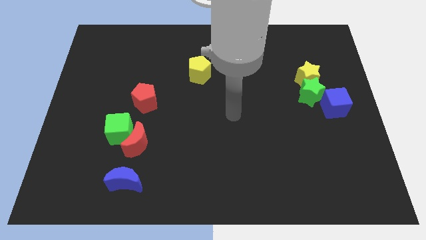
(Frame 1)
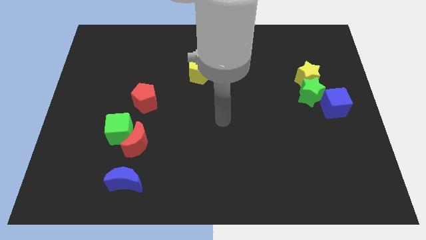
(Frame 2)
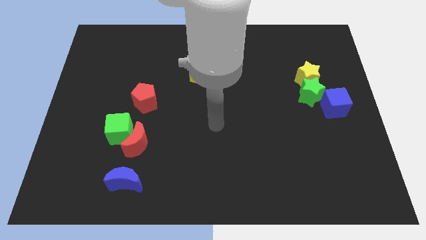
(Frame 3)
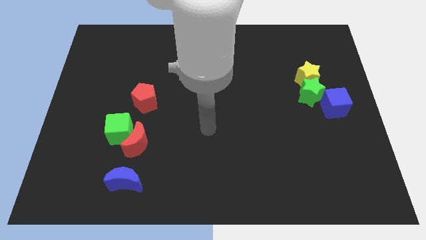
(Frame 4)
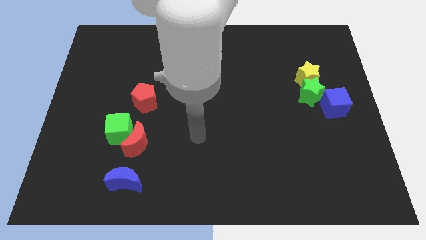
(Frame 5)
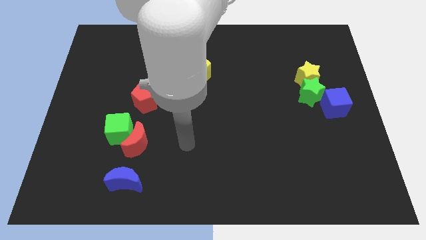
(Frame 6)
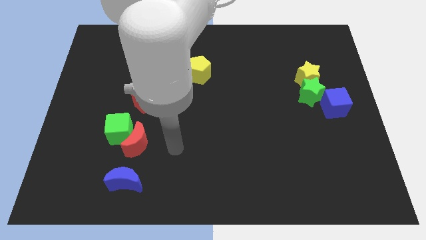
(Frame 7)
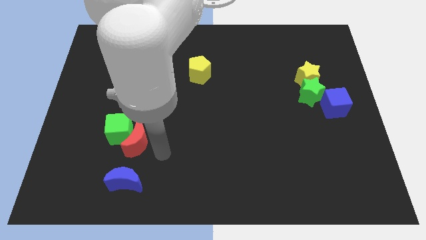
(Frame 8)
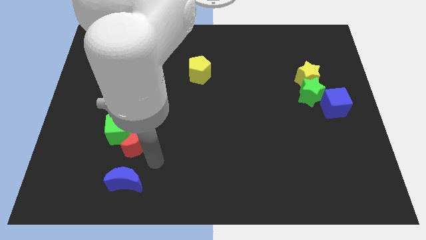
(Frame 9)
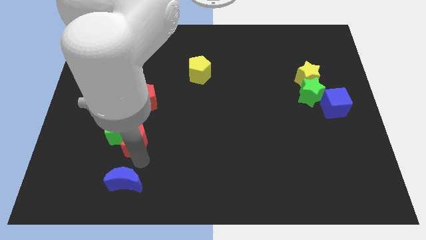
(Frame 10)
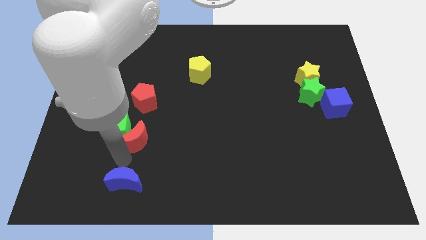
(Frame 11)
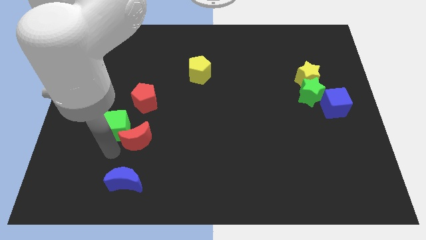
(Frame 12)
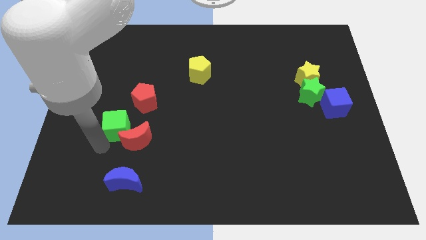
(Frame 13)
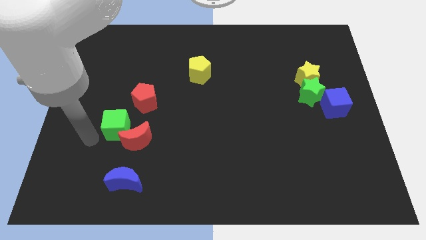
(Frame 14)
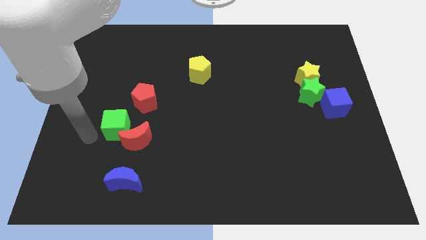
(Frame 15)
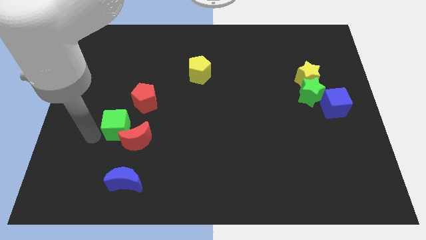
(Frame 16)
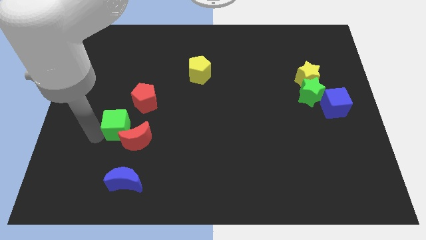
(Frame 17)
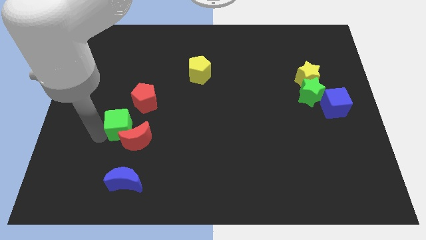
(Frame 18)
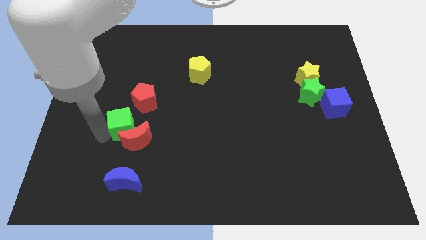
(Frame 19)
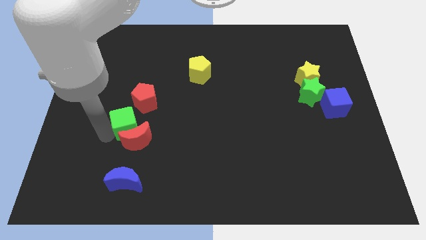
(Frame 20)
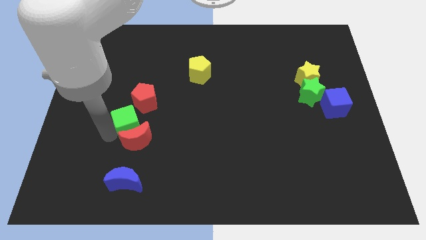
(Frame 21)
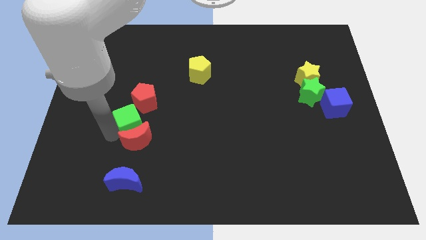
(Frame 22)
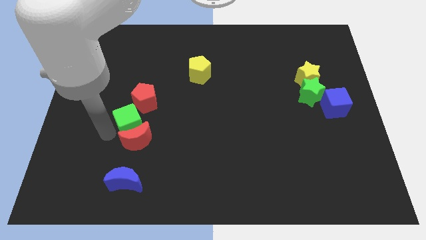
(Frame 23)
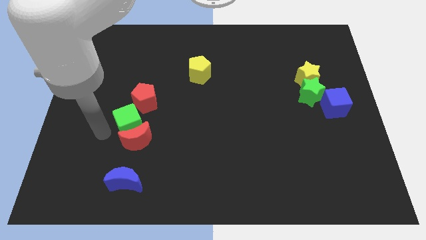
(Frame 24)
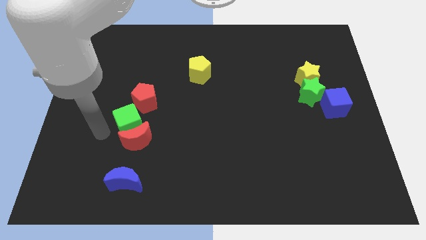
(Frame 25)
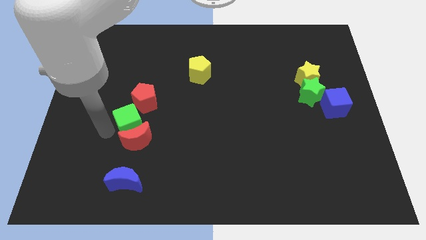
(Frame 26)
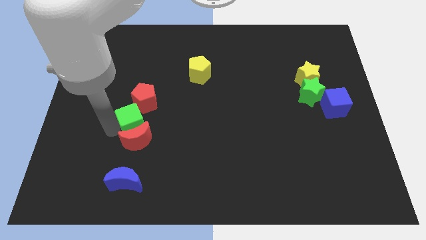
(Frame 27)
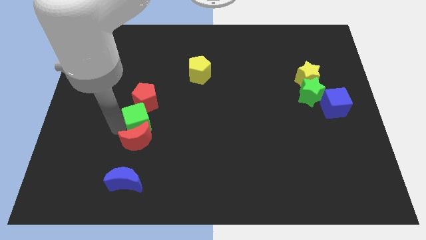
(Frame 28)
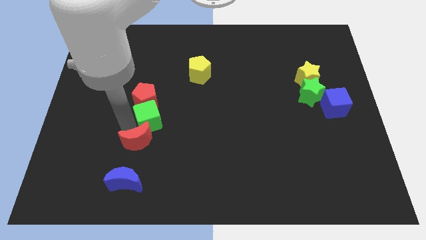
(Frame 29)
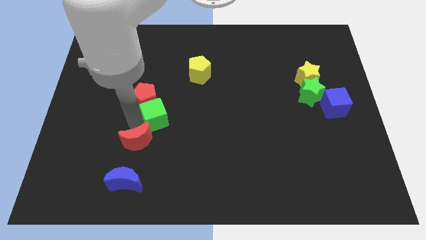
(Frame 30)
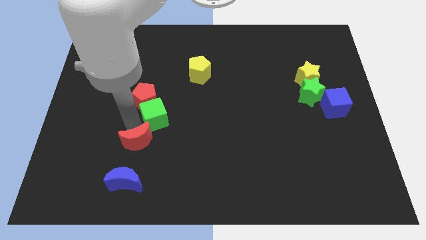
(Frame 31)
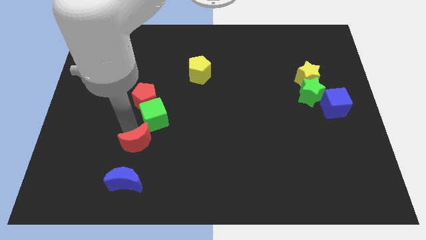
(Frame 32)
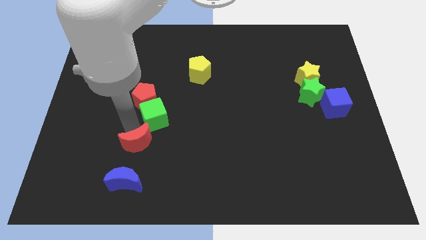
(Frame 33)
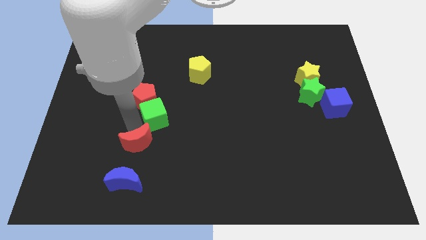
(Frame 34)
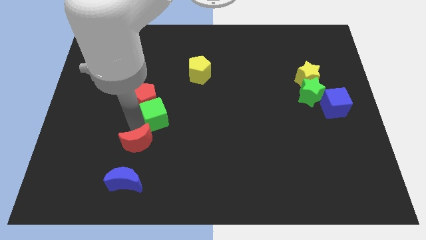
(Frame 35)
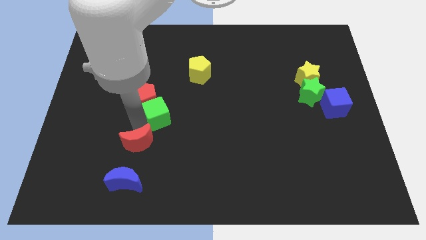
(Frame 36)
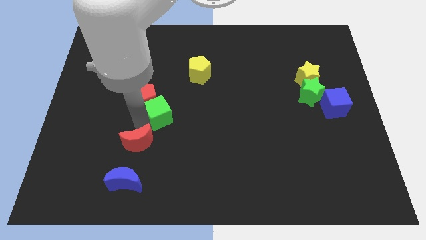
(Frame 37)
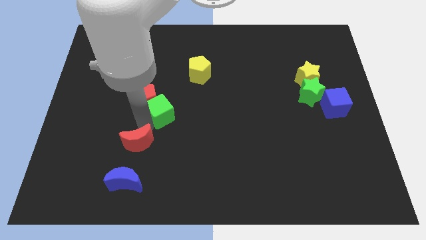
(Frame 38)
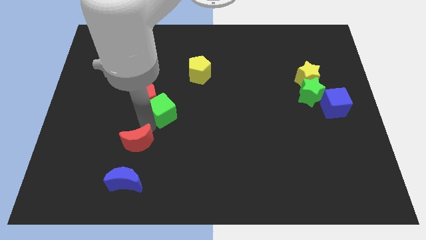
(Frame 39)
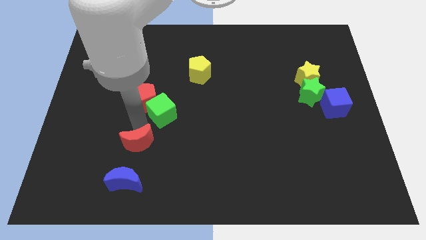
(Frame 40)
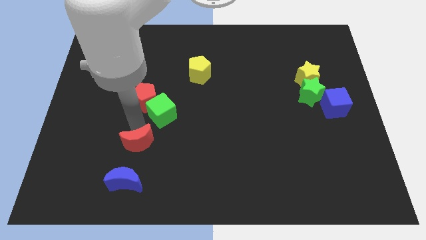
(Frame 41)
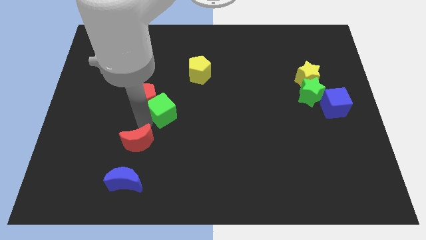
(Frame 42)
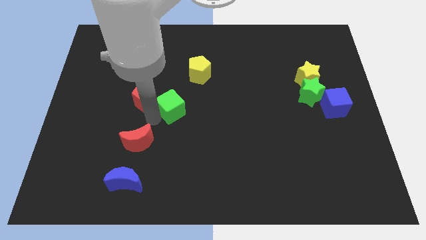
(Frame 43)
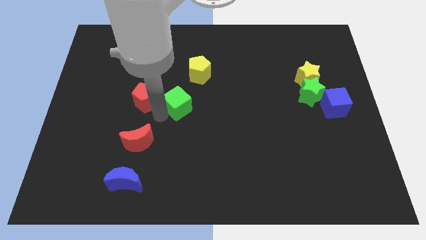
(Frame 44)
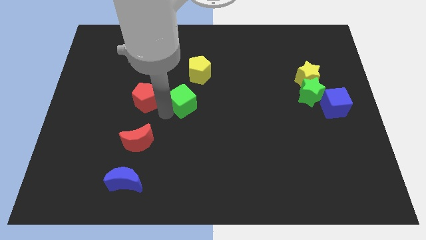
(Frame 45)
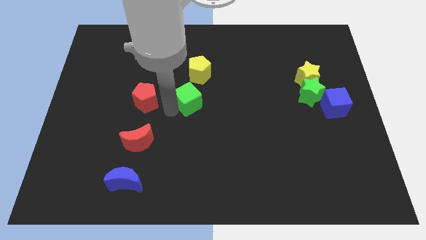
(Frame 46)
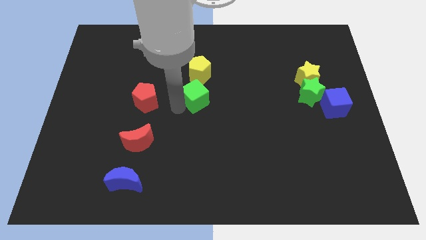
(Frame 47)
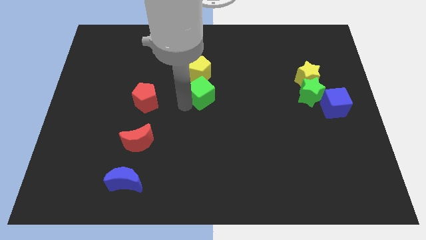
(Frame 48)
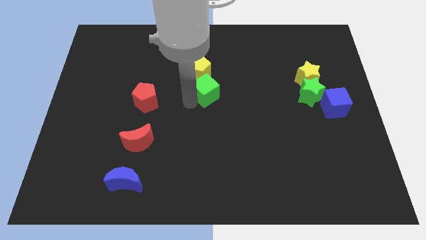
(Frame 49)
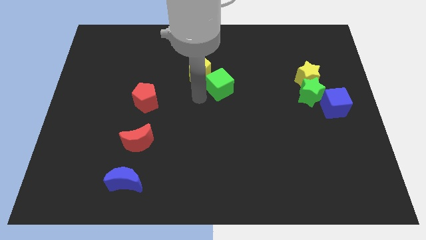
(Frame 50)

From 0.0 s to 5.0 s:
move the green cube right of the yellow pentagon

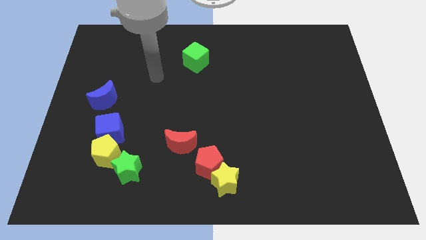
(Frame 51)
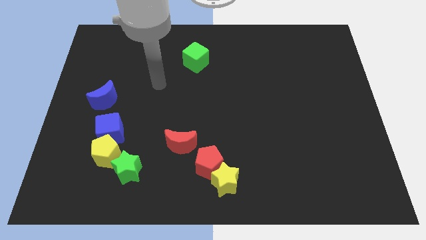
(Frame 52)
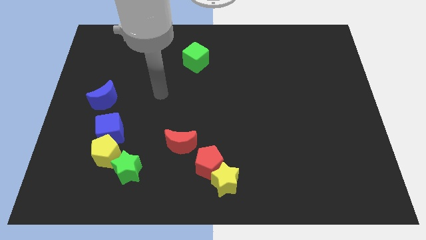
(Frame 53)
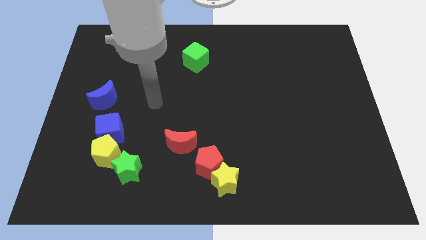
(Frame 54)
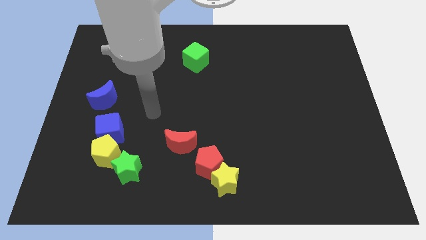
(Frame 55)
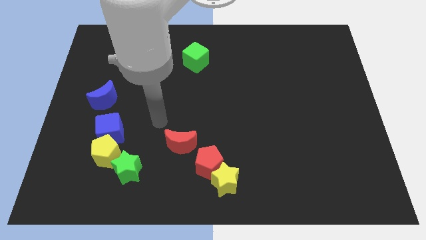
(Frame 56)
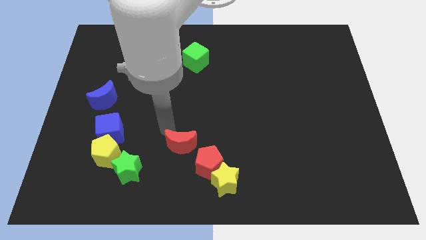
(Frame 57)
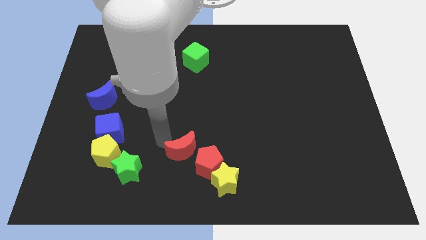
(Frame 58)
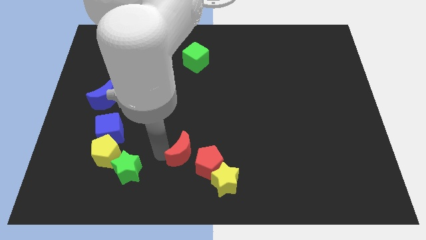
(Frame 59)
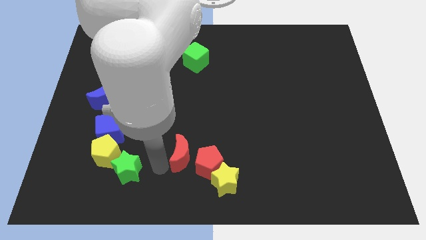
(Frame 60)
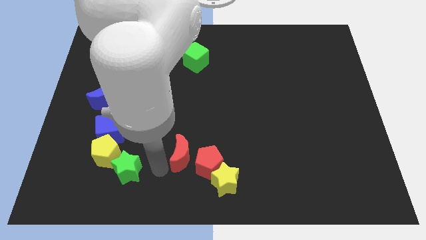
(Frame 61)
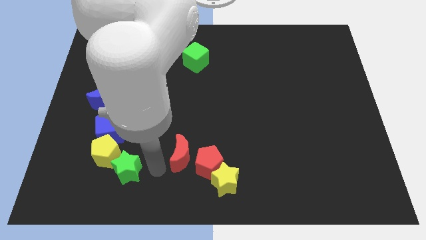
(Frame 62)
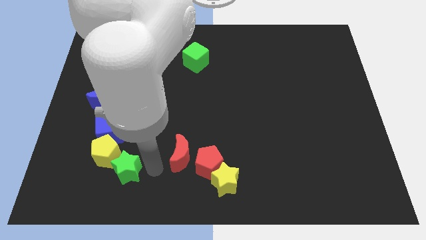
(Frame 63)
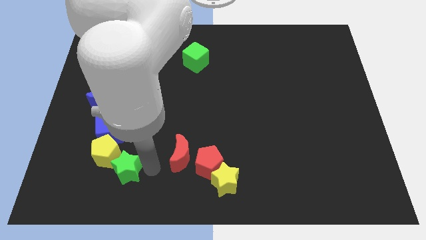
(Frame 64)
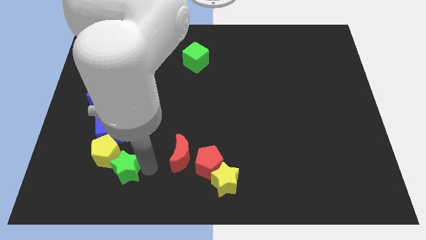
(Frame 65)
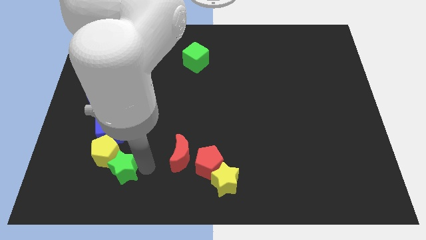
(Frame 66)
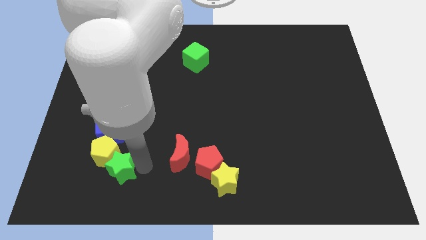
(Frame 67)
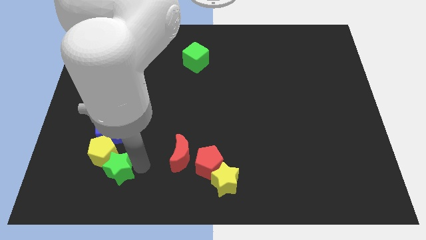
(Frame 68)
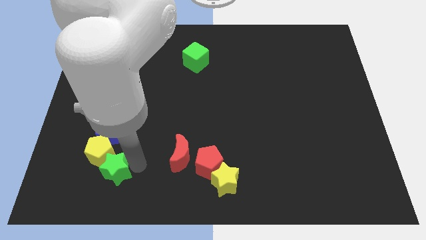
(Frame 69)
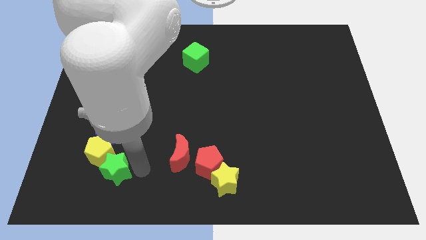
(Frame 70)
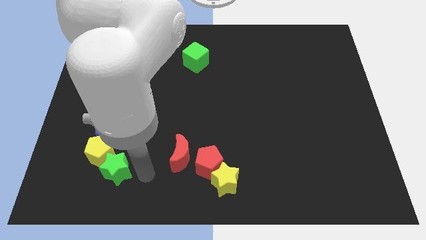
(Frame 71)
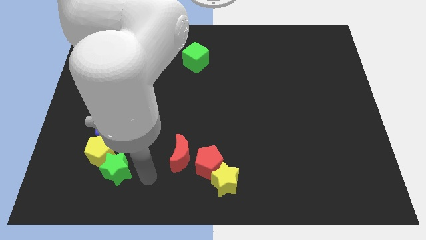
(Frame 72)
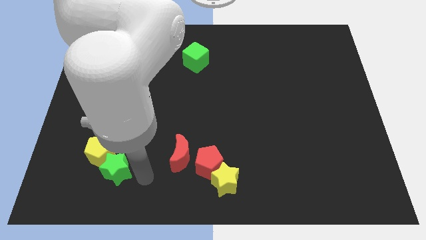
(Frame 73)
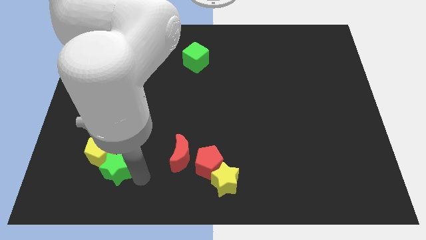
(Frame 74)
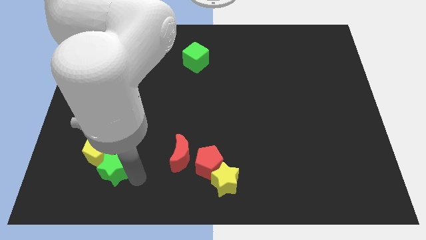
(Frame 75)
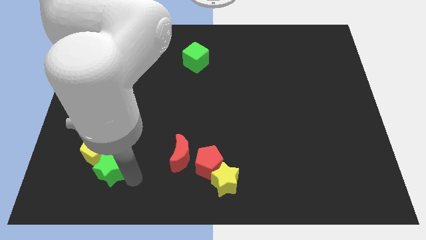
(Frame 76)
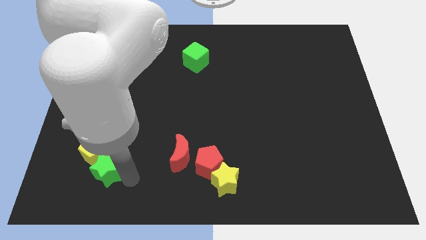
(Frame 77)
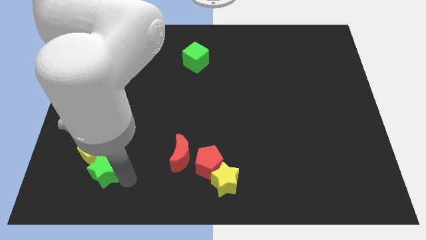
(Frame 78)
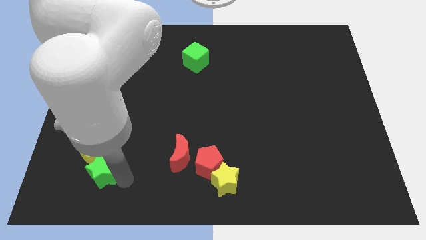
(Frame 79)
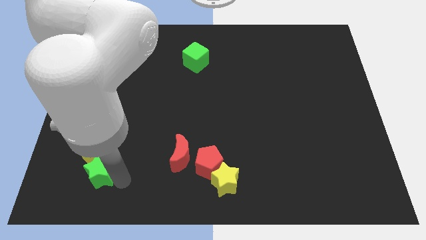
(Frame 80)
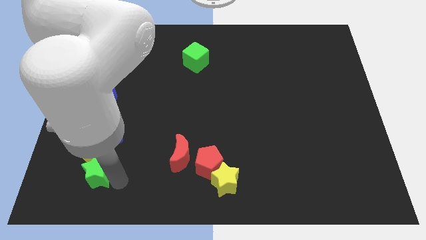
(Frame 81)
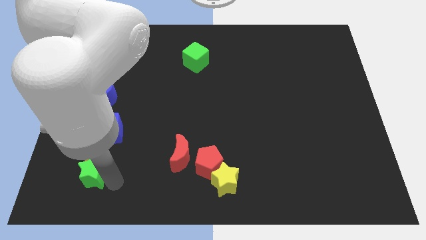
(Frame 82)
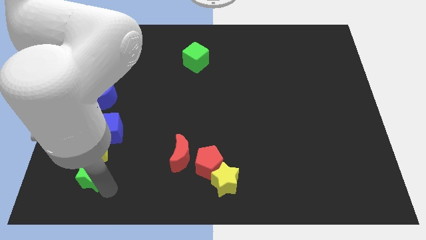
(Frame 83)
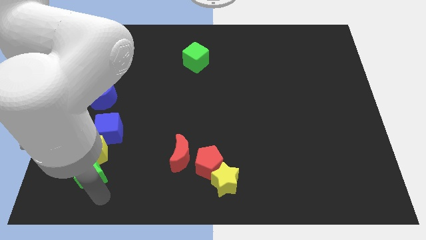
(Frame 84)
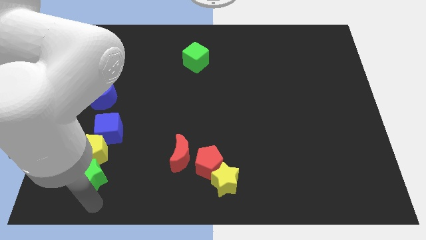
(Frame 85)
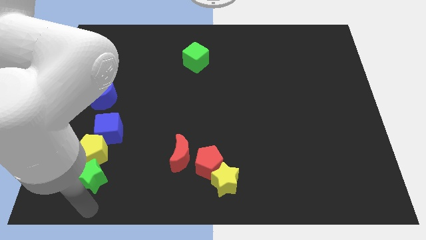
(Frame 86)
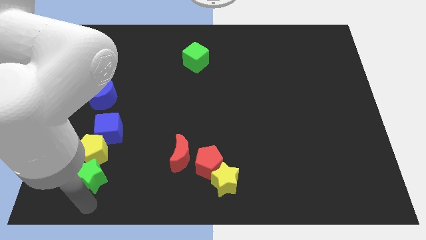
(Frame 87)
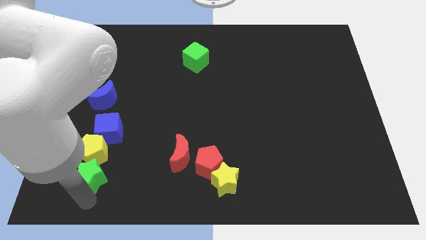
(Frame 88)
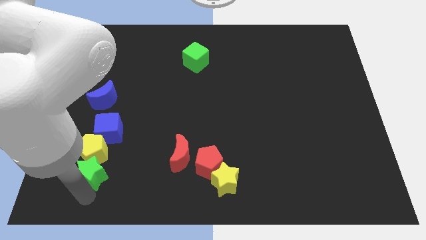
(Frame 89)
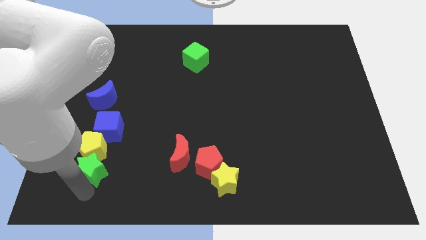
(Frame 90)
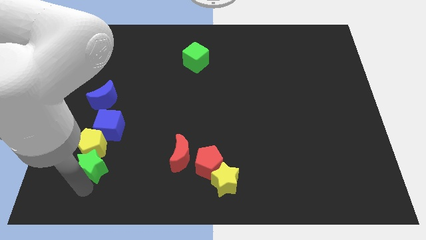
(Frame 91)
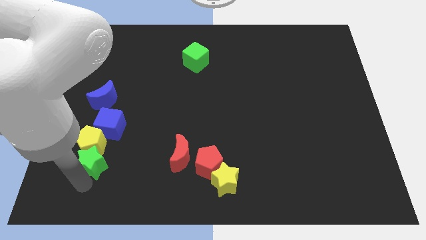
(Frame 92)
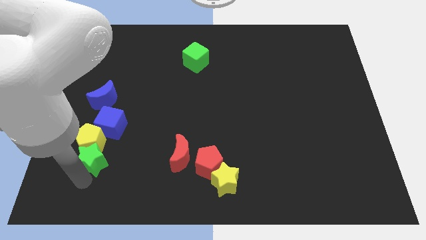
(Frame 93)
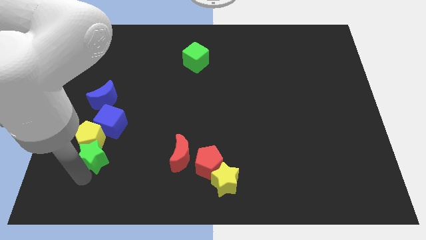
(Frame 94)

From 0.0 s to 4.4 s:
slide the green star to the bottom side of the blue moon
